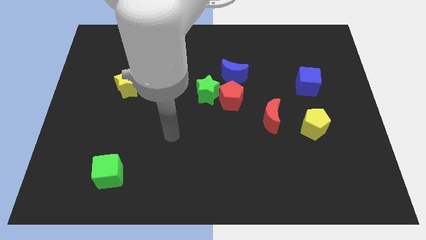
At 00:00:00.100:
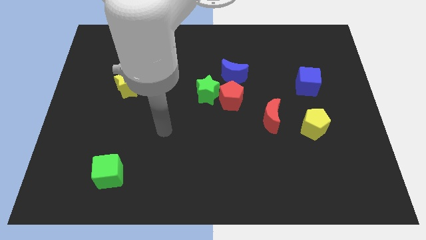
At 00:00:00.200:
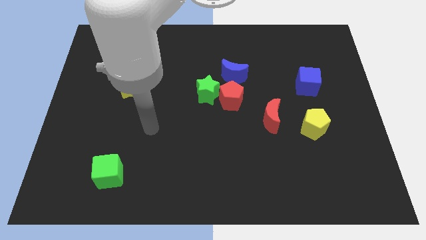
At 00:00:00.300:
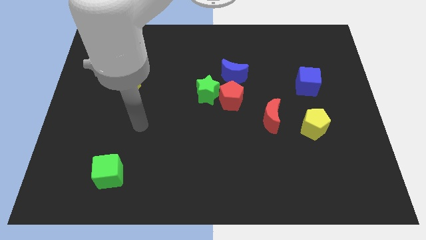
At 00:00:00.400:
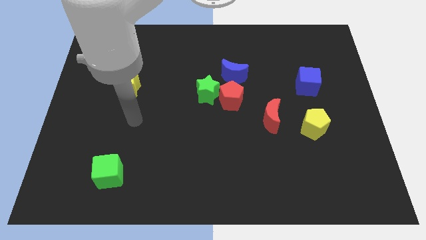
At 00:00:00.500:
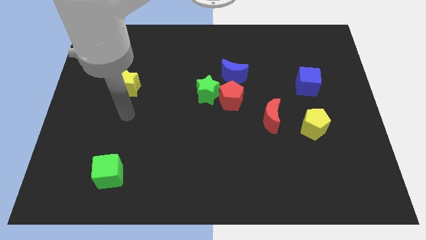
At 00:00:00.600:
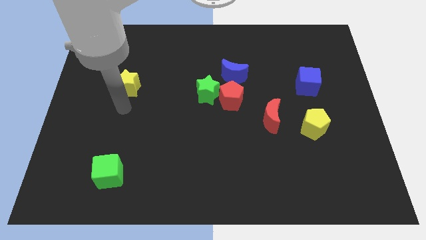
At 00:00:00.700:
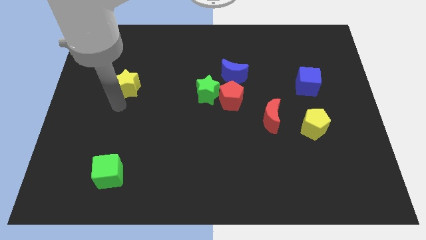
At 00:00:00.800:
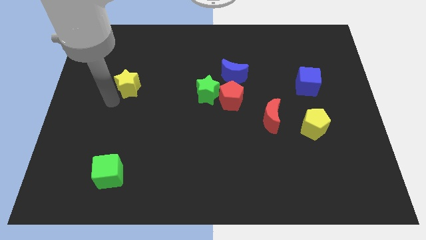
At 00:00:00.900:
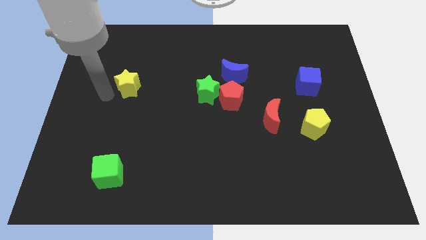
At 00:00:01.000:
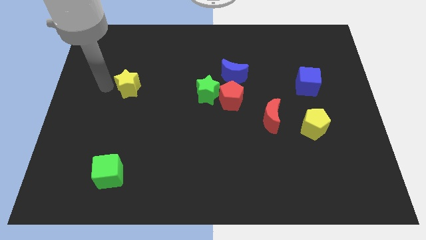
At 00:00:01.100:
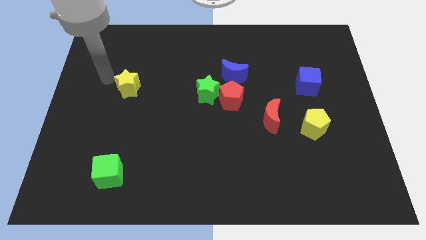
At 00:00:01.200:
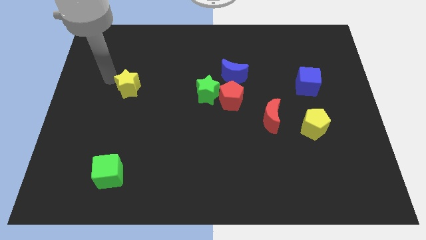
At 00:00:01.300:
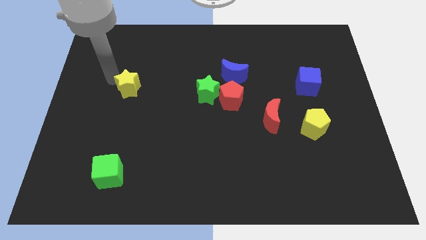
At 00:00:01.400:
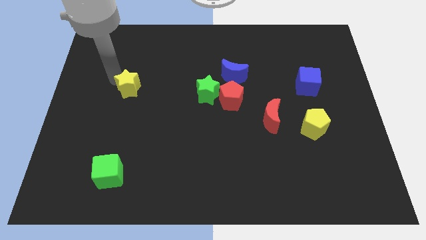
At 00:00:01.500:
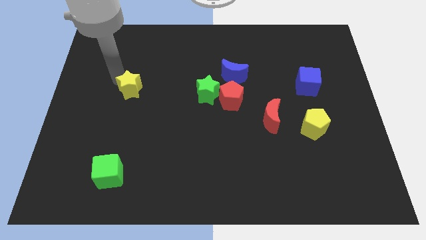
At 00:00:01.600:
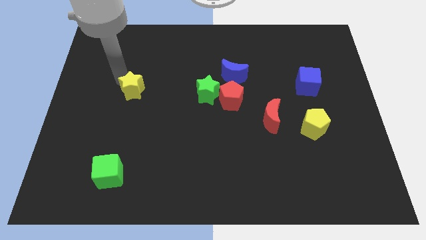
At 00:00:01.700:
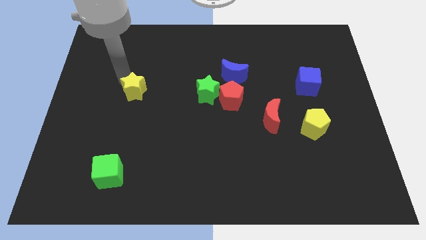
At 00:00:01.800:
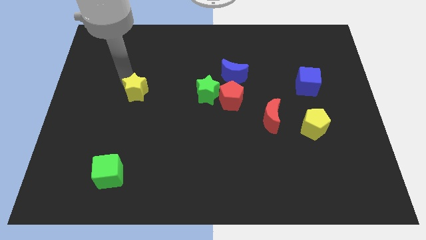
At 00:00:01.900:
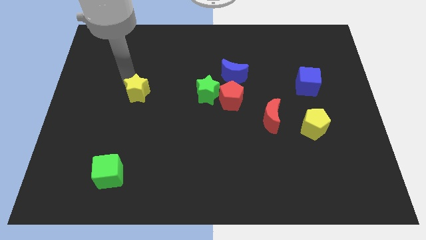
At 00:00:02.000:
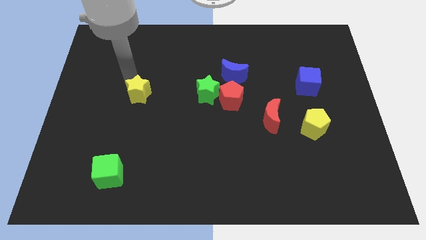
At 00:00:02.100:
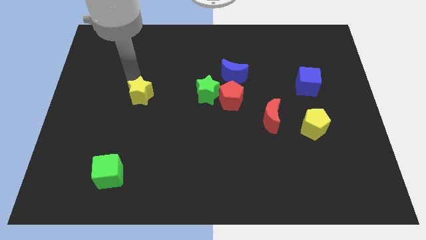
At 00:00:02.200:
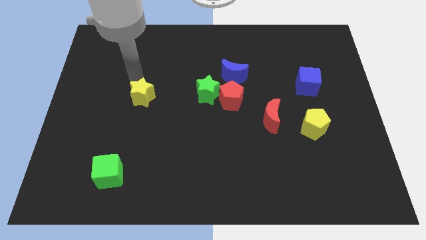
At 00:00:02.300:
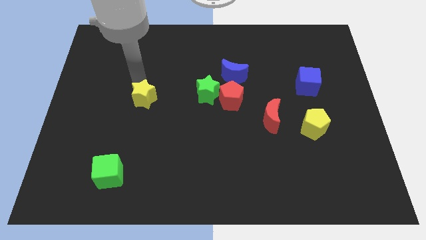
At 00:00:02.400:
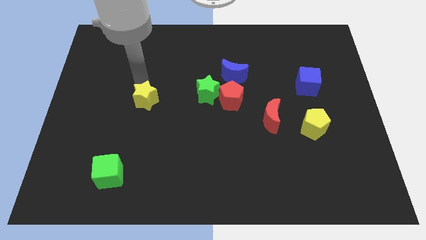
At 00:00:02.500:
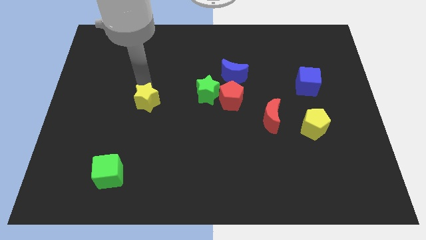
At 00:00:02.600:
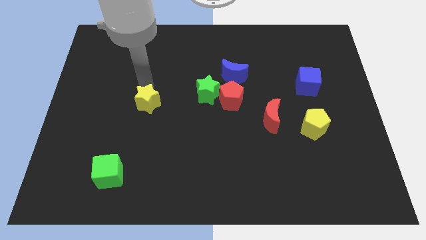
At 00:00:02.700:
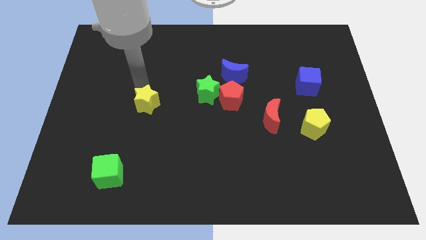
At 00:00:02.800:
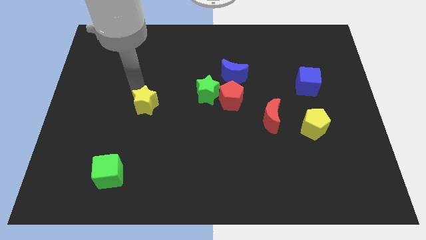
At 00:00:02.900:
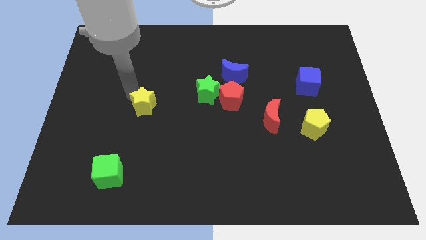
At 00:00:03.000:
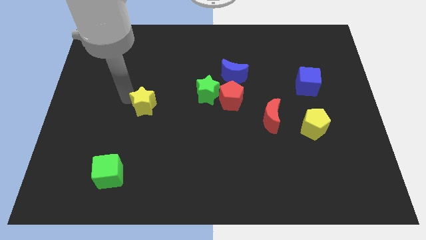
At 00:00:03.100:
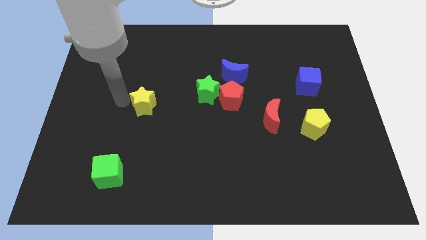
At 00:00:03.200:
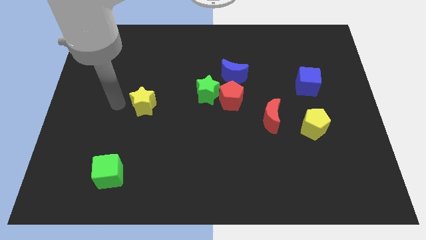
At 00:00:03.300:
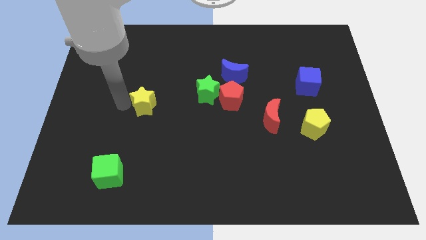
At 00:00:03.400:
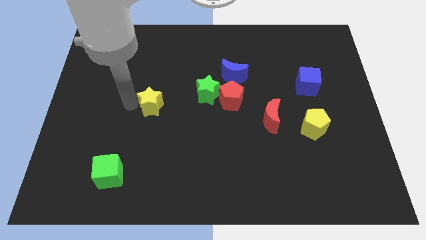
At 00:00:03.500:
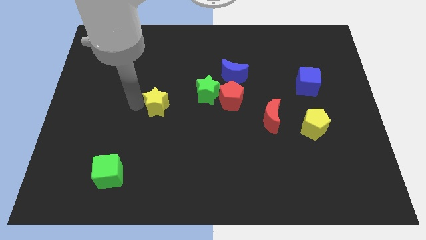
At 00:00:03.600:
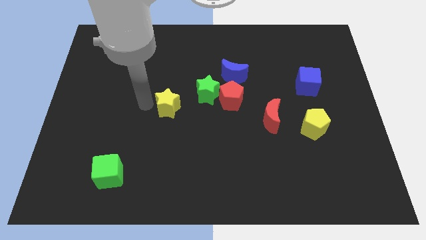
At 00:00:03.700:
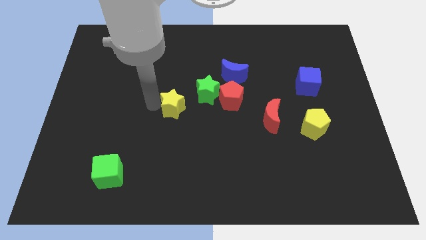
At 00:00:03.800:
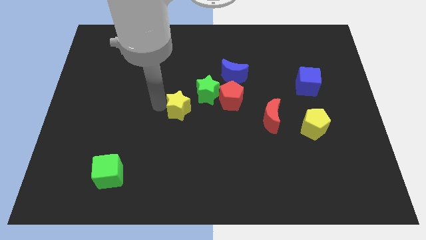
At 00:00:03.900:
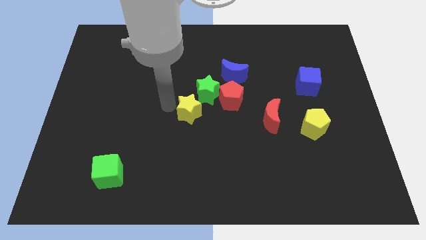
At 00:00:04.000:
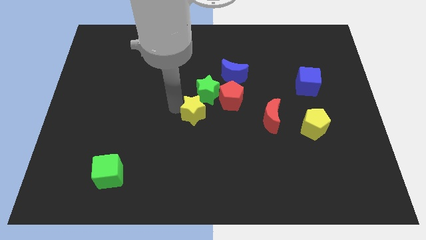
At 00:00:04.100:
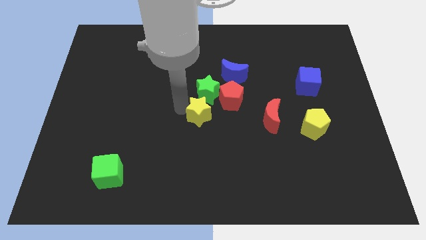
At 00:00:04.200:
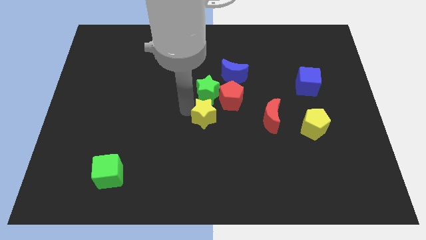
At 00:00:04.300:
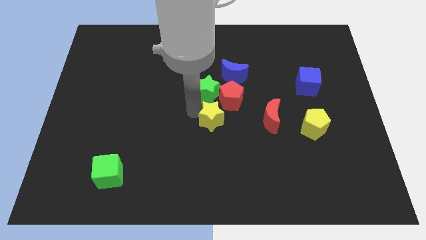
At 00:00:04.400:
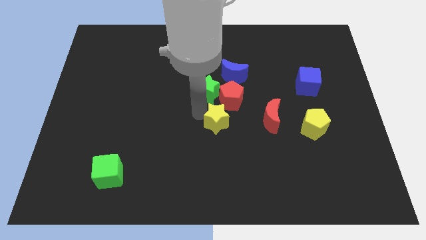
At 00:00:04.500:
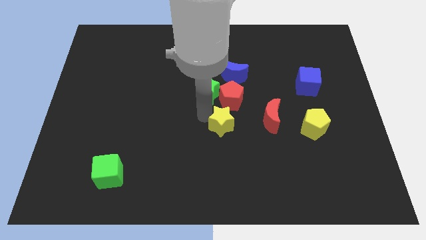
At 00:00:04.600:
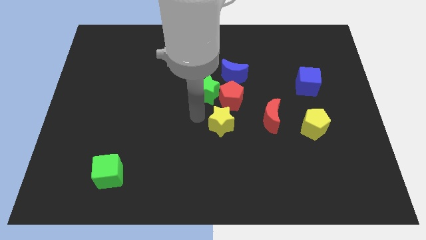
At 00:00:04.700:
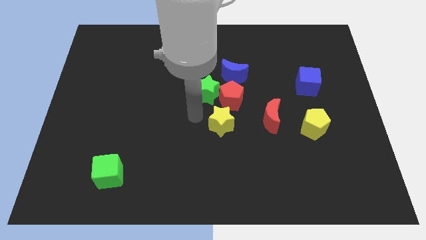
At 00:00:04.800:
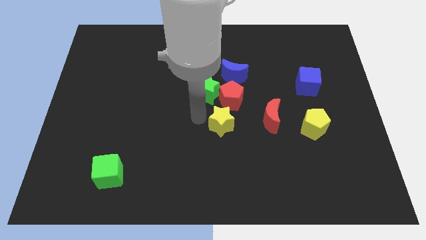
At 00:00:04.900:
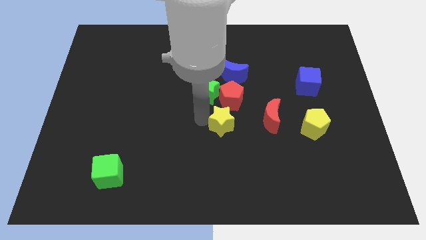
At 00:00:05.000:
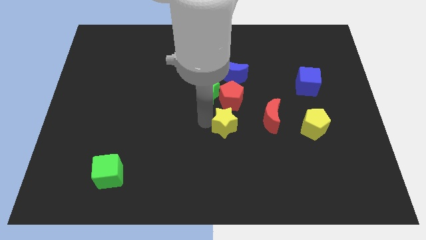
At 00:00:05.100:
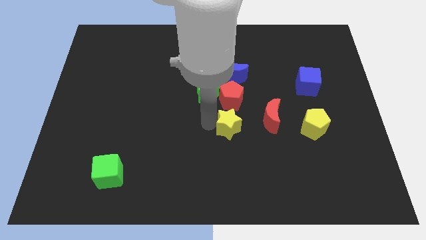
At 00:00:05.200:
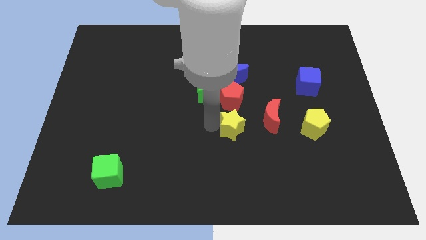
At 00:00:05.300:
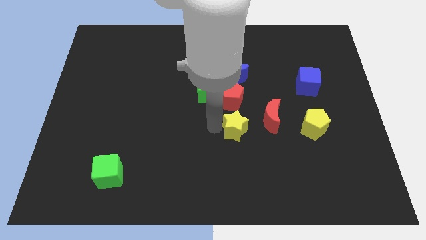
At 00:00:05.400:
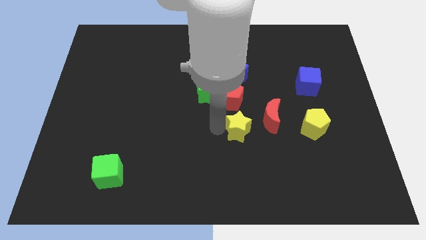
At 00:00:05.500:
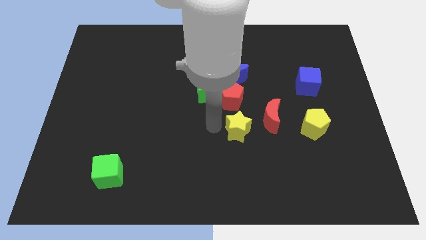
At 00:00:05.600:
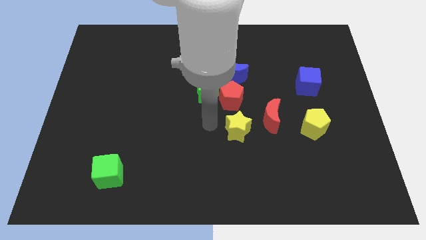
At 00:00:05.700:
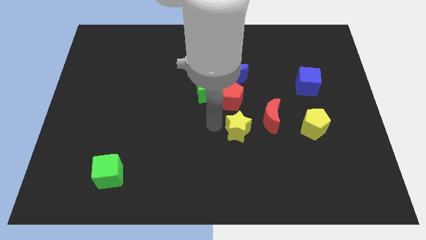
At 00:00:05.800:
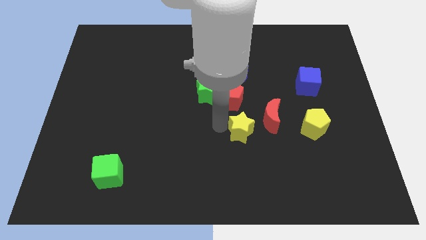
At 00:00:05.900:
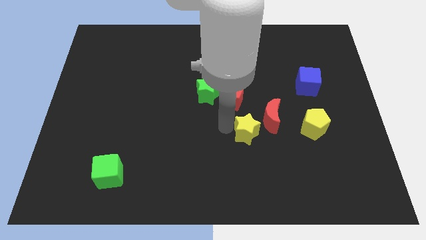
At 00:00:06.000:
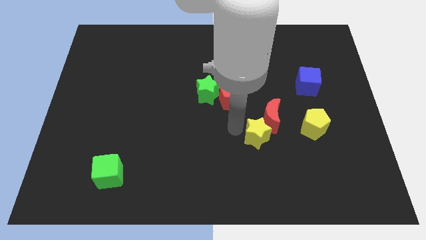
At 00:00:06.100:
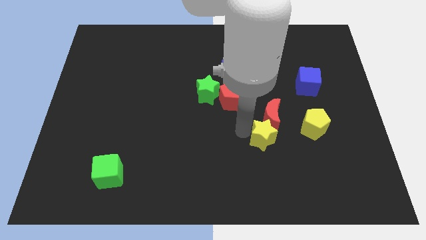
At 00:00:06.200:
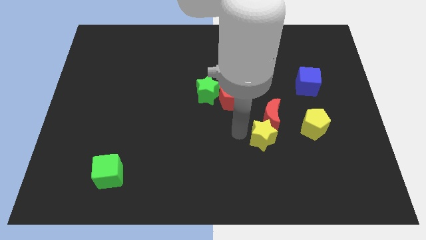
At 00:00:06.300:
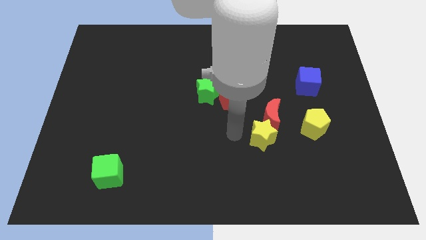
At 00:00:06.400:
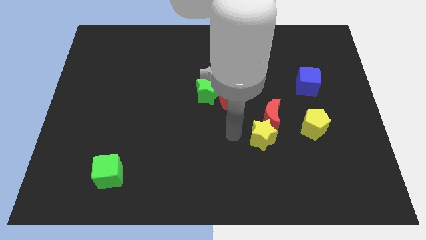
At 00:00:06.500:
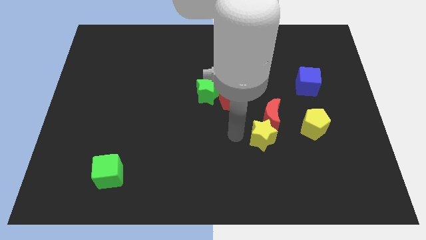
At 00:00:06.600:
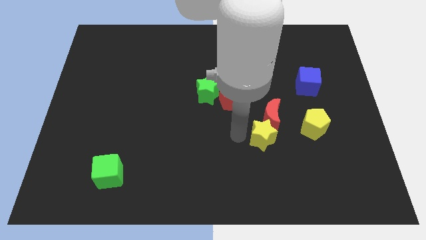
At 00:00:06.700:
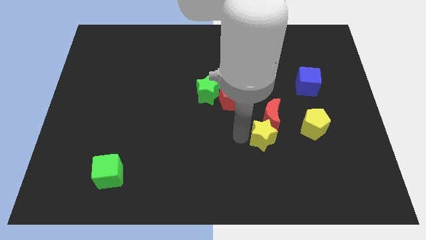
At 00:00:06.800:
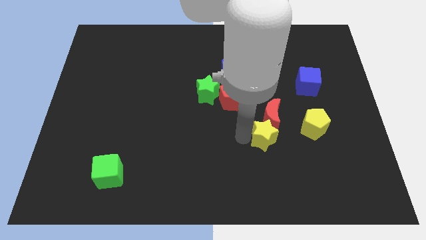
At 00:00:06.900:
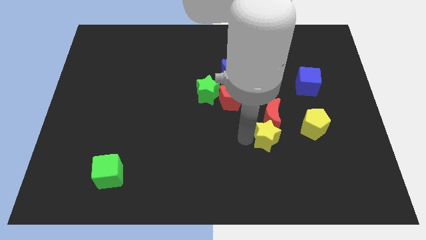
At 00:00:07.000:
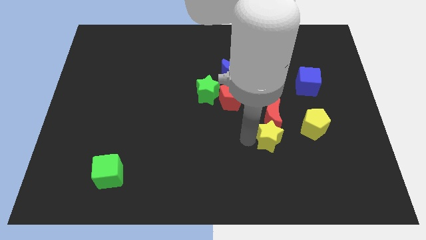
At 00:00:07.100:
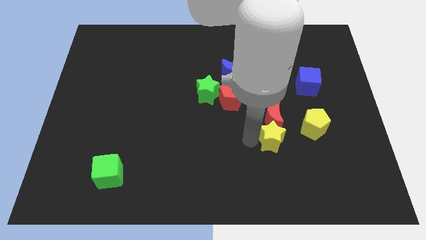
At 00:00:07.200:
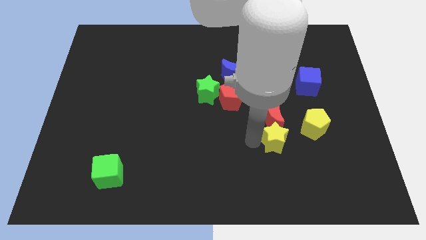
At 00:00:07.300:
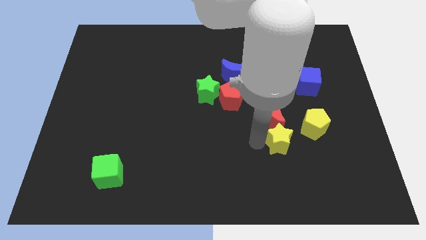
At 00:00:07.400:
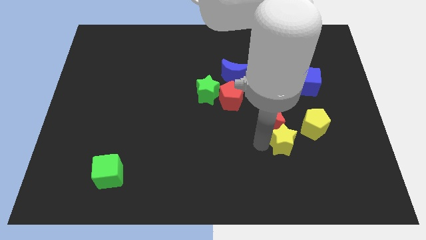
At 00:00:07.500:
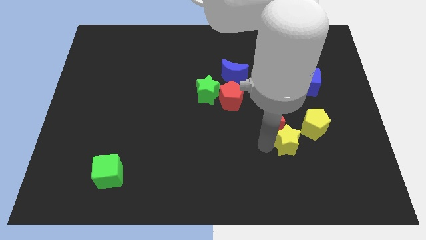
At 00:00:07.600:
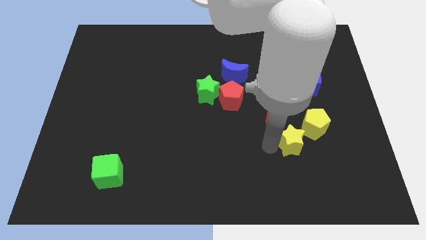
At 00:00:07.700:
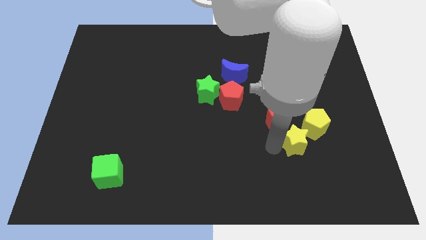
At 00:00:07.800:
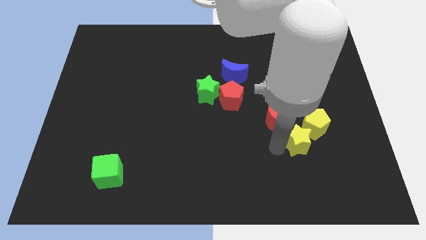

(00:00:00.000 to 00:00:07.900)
push the yellow star next to the yellow pentagon
